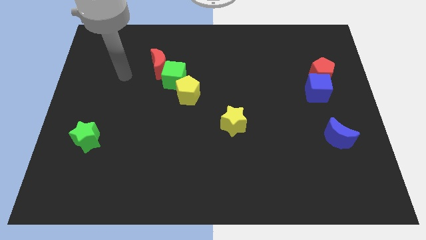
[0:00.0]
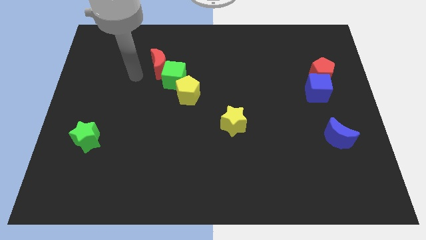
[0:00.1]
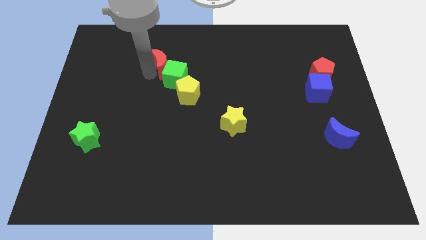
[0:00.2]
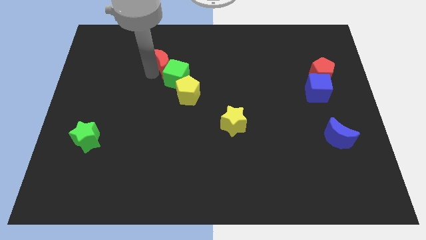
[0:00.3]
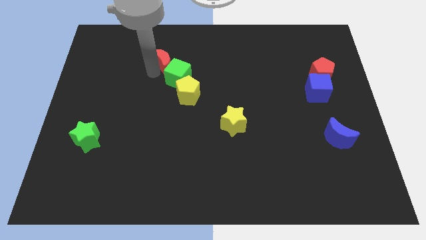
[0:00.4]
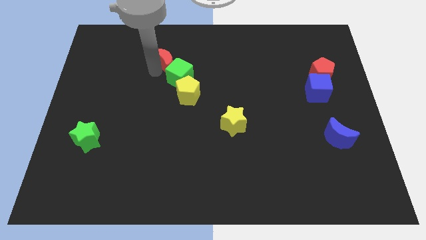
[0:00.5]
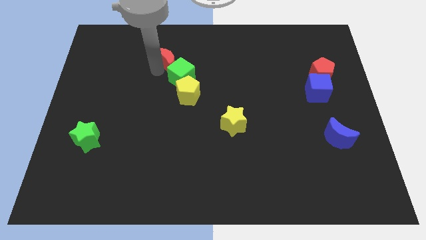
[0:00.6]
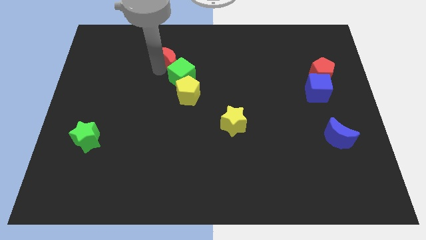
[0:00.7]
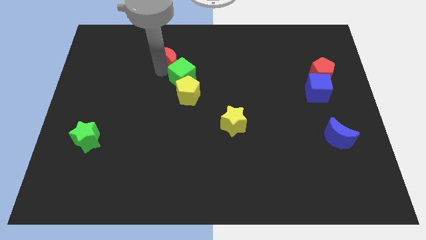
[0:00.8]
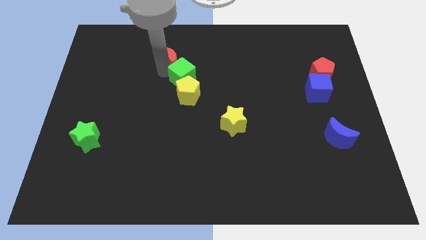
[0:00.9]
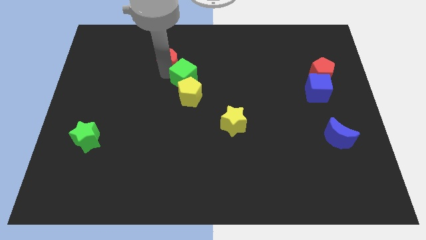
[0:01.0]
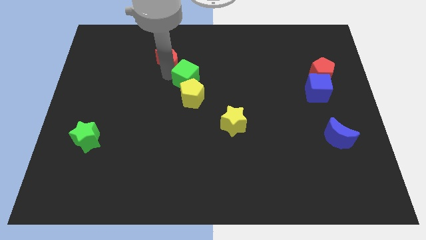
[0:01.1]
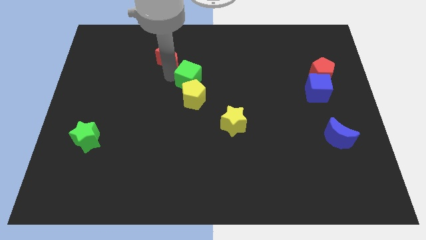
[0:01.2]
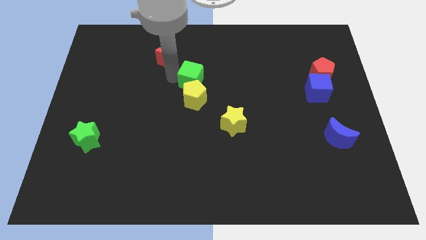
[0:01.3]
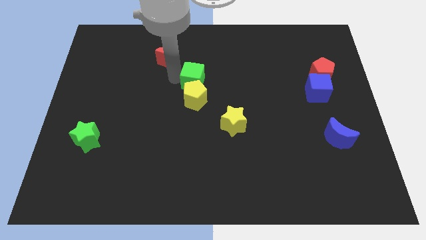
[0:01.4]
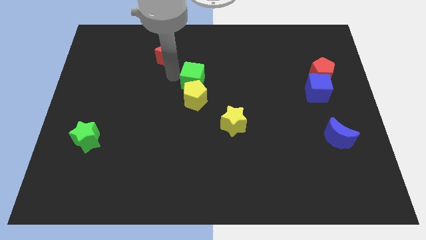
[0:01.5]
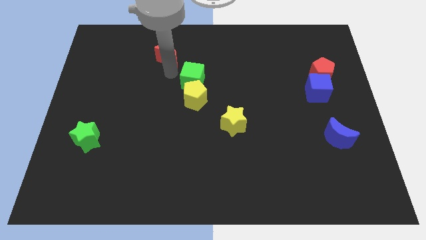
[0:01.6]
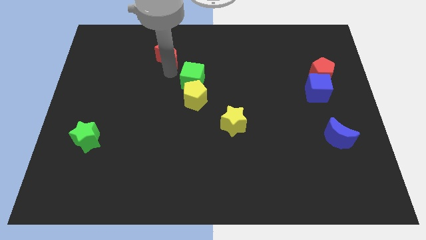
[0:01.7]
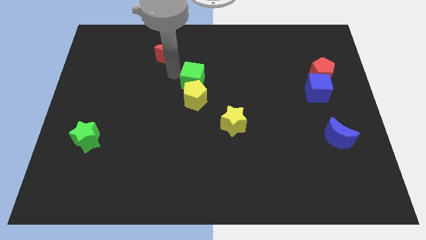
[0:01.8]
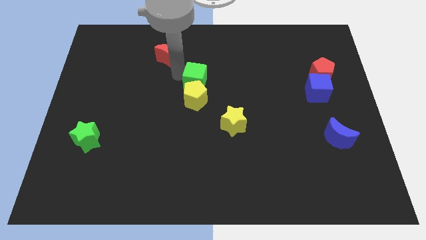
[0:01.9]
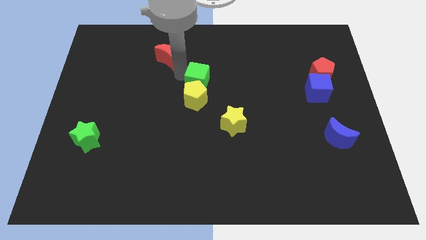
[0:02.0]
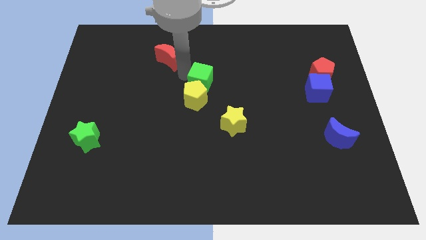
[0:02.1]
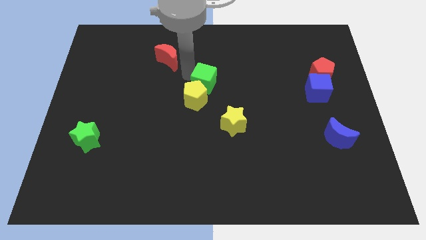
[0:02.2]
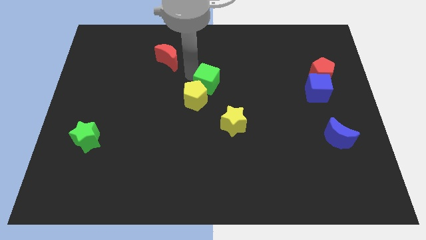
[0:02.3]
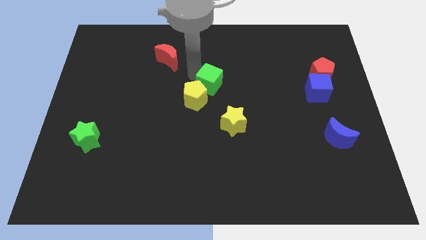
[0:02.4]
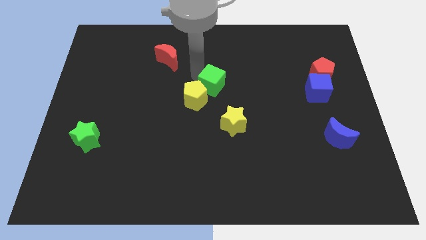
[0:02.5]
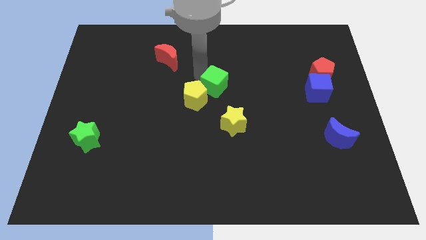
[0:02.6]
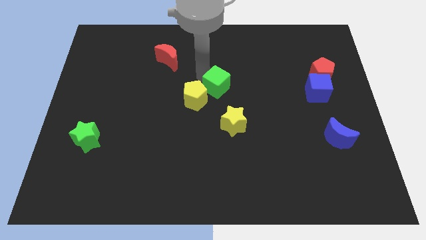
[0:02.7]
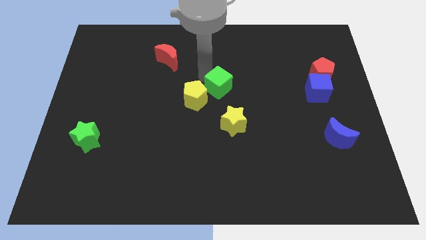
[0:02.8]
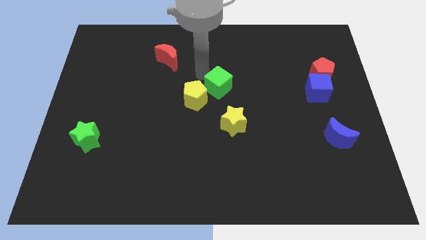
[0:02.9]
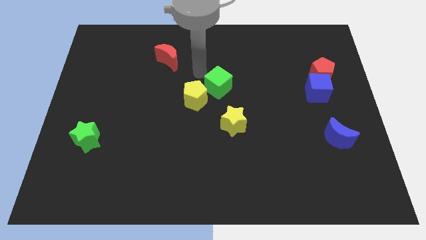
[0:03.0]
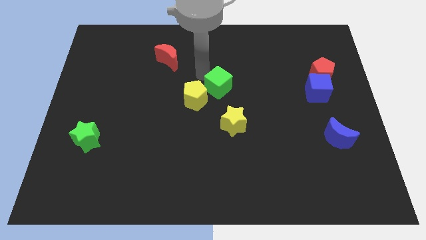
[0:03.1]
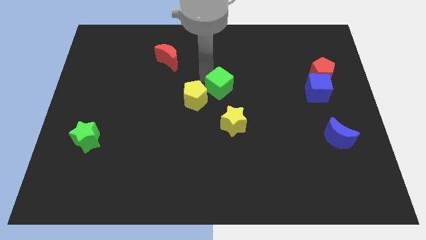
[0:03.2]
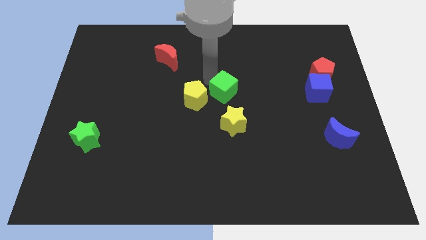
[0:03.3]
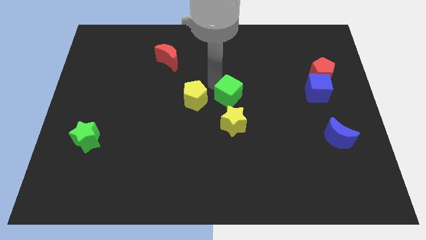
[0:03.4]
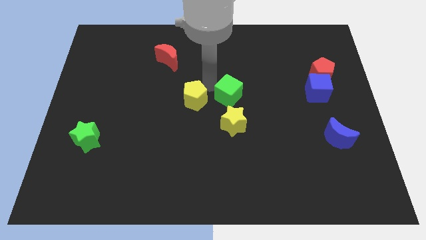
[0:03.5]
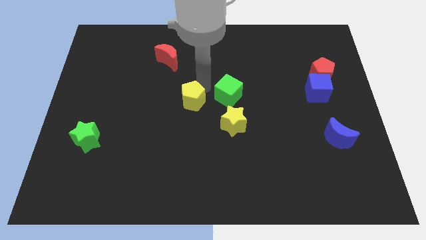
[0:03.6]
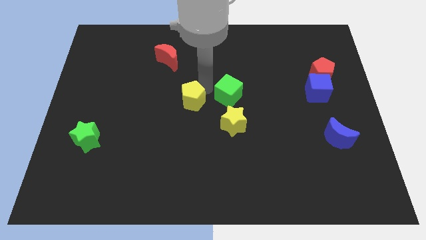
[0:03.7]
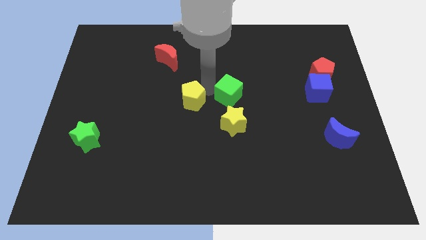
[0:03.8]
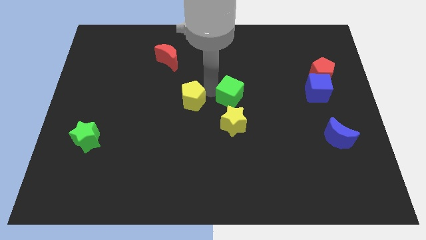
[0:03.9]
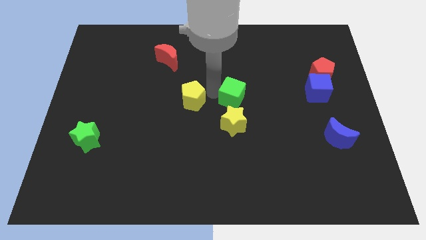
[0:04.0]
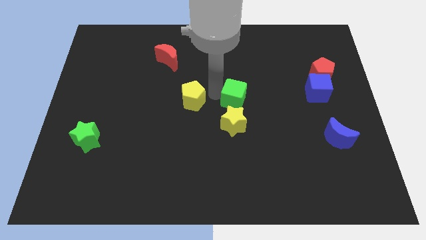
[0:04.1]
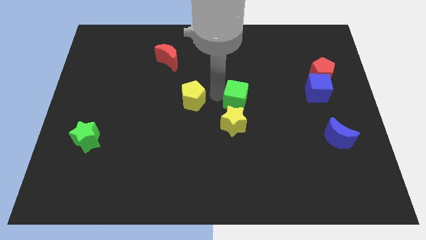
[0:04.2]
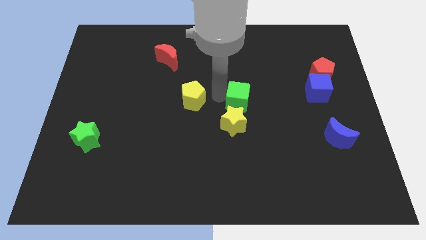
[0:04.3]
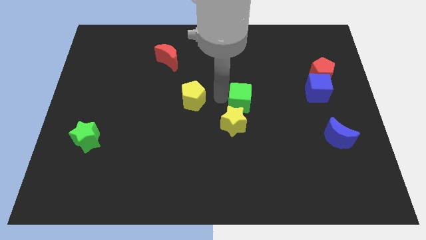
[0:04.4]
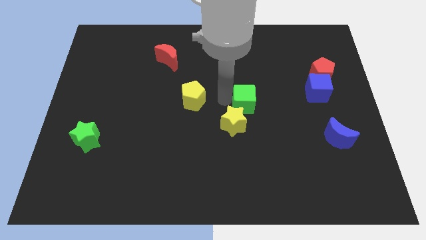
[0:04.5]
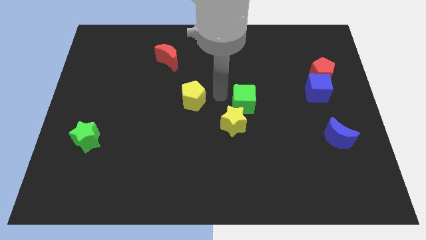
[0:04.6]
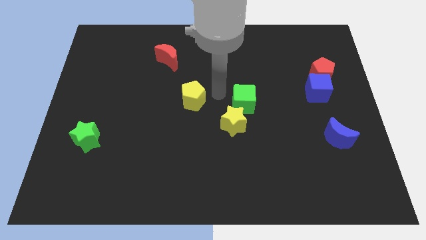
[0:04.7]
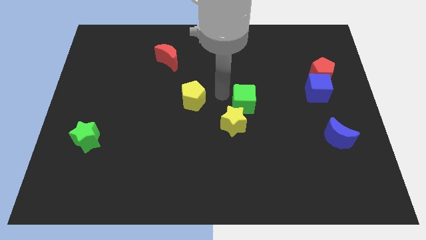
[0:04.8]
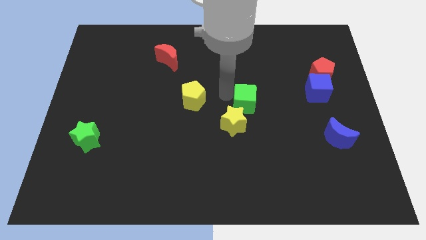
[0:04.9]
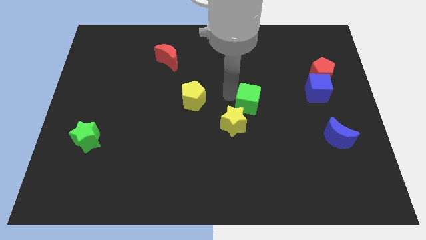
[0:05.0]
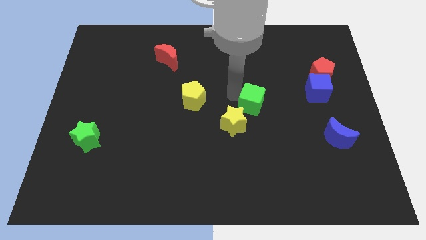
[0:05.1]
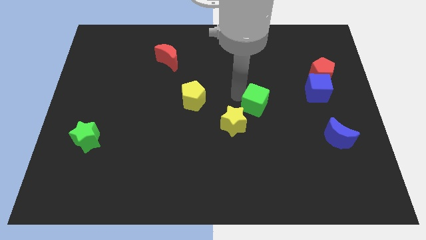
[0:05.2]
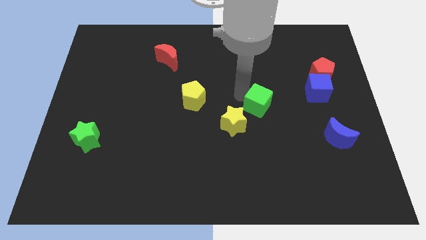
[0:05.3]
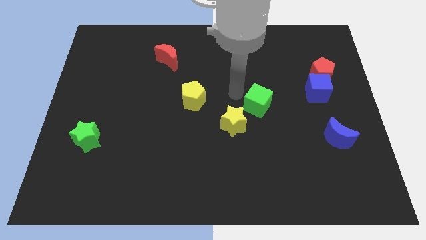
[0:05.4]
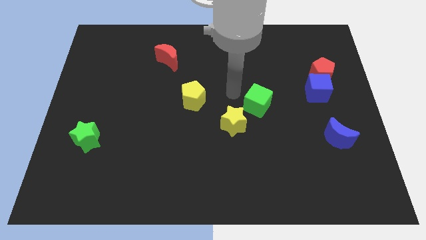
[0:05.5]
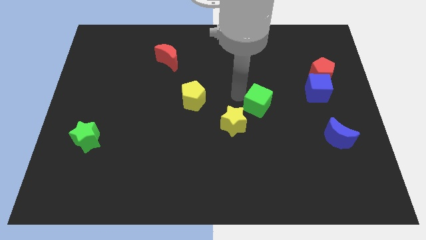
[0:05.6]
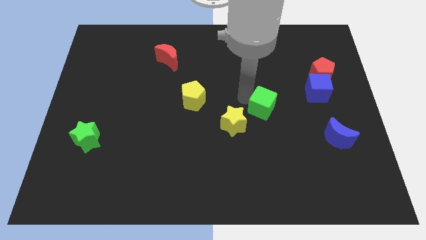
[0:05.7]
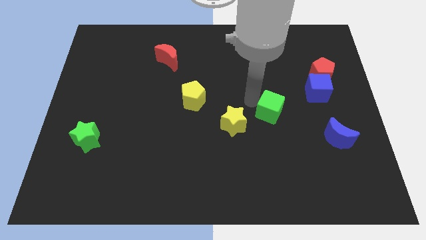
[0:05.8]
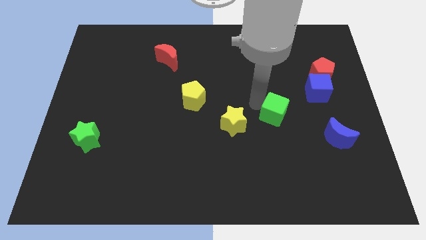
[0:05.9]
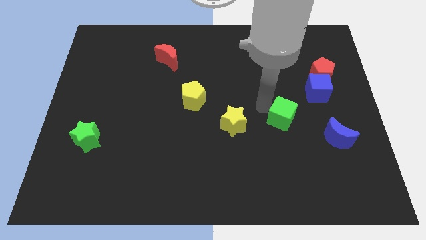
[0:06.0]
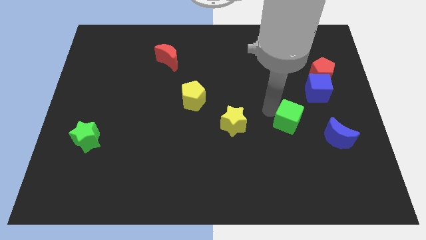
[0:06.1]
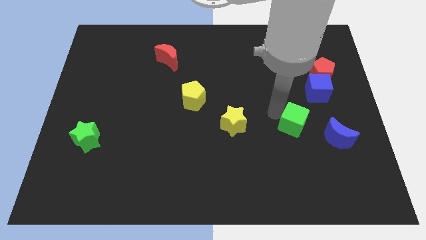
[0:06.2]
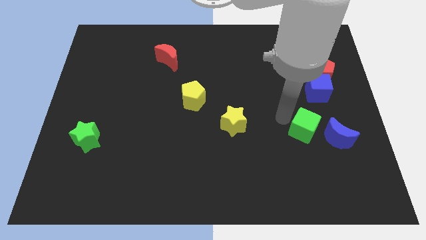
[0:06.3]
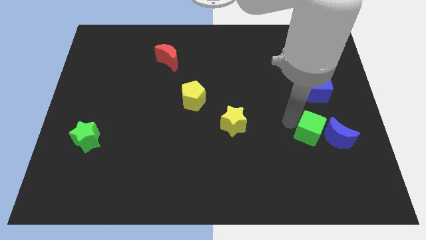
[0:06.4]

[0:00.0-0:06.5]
slide the green cube close to the blue moon
